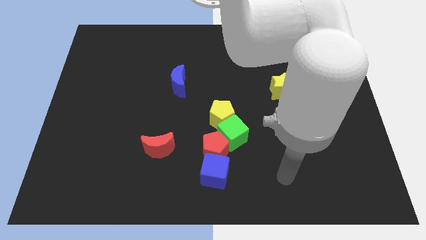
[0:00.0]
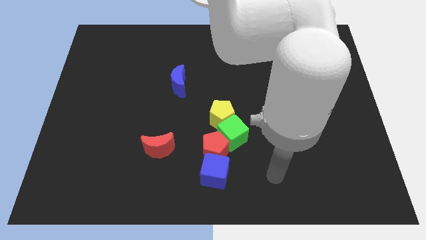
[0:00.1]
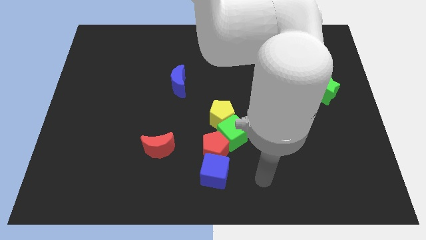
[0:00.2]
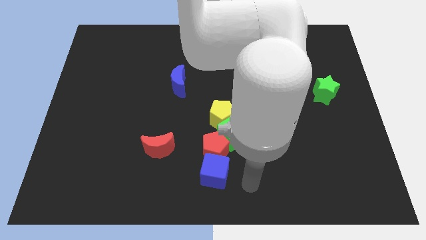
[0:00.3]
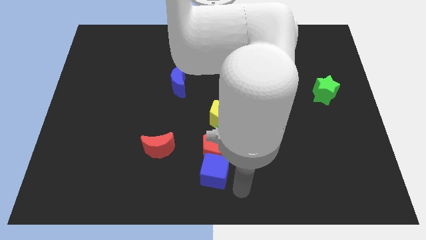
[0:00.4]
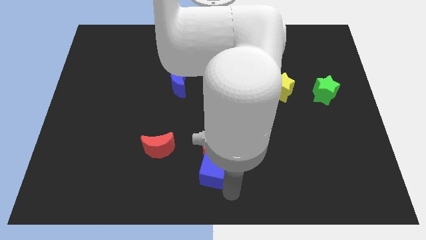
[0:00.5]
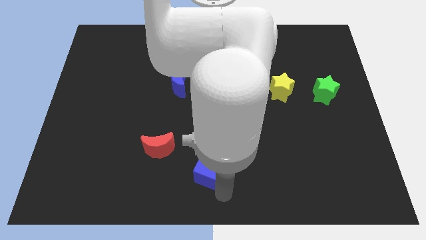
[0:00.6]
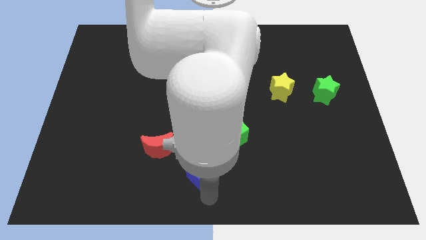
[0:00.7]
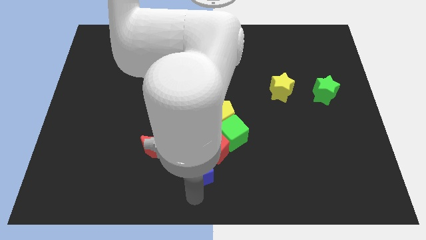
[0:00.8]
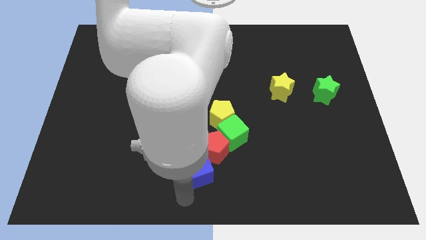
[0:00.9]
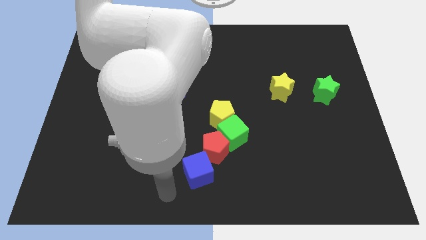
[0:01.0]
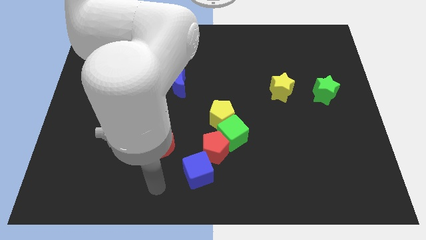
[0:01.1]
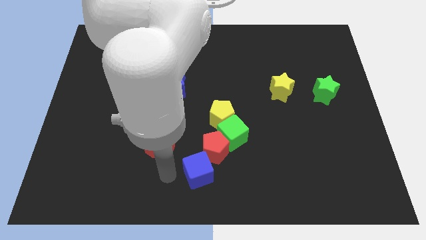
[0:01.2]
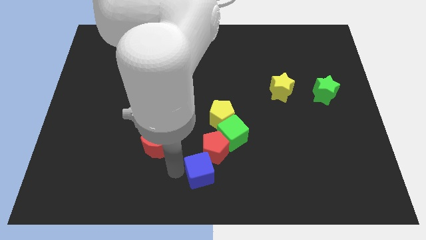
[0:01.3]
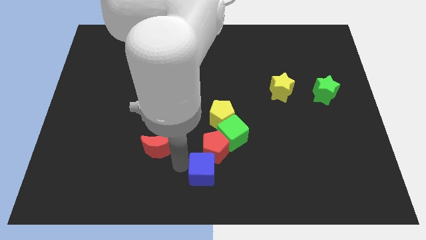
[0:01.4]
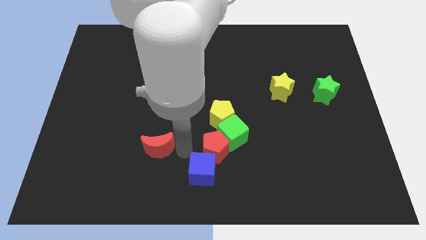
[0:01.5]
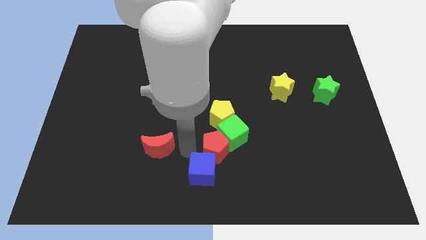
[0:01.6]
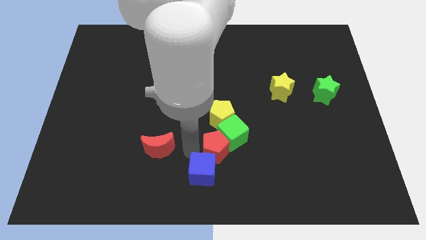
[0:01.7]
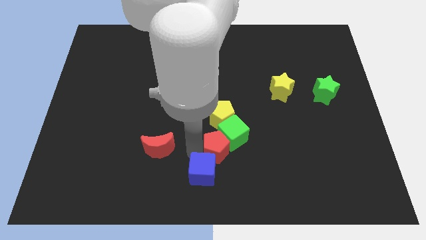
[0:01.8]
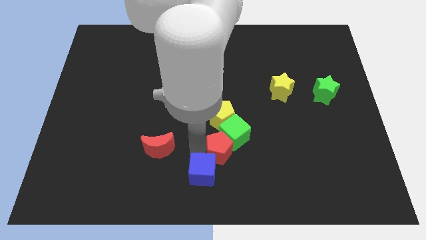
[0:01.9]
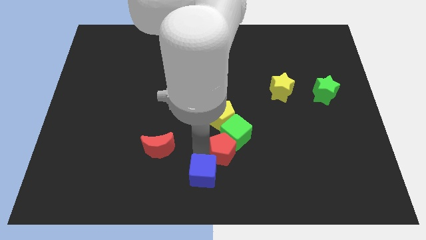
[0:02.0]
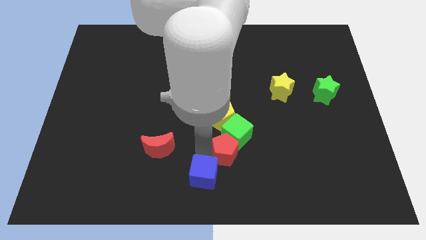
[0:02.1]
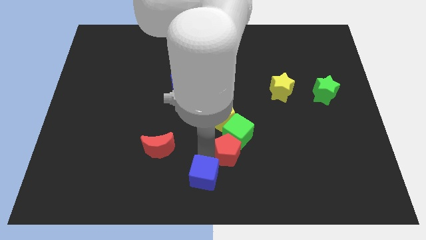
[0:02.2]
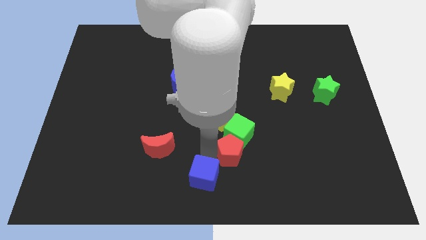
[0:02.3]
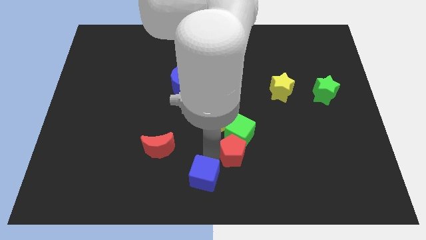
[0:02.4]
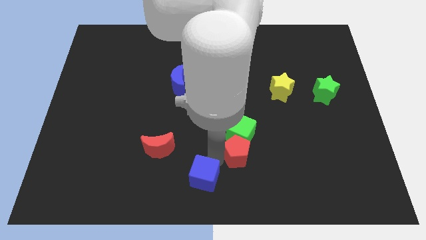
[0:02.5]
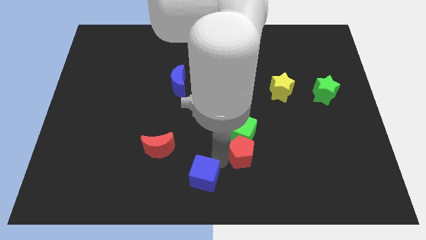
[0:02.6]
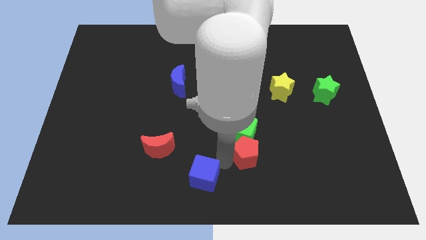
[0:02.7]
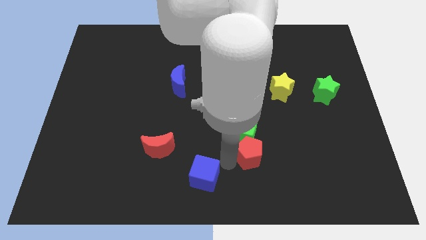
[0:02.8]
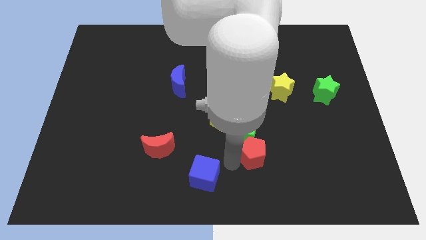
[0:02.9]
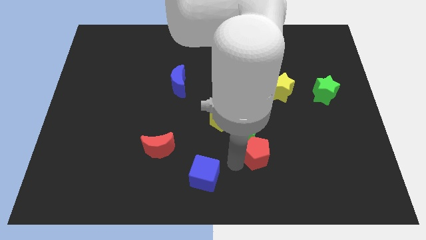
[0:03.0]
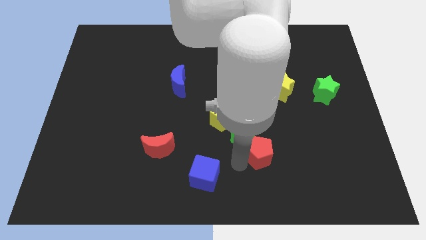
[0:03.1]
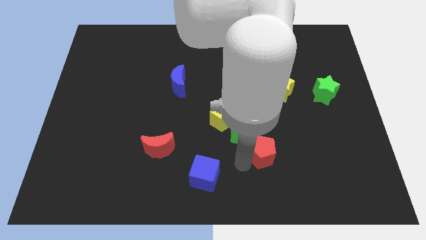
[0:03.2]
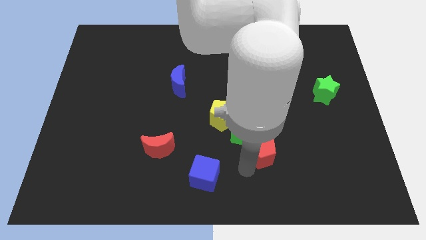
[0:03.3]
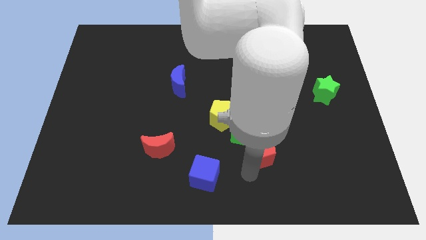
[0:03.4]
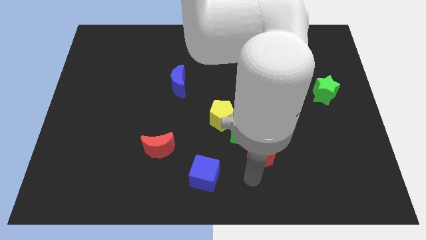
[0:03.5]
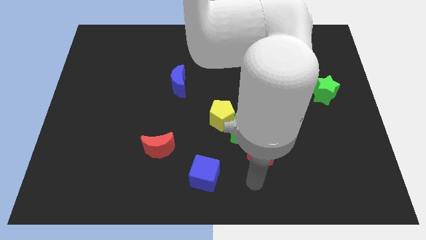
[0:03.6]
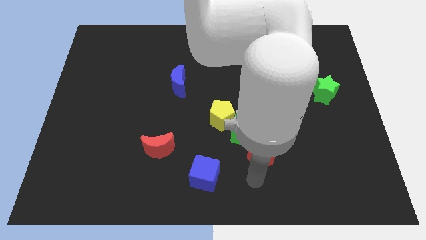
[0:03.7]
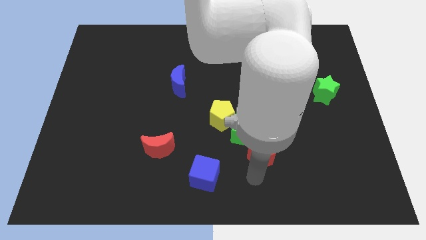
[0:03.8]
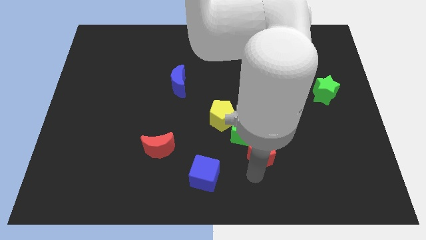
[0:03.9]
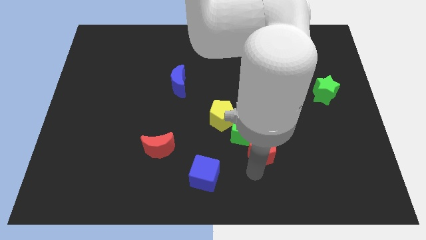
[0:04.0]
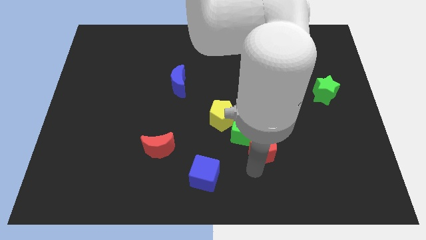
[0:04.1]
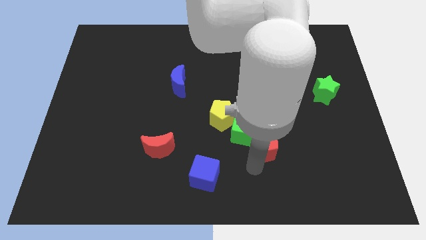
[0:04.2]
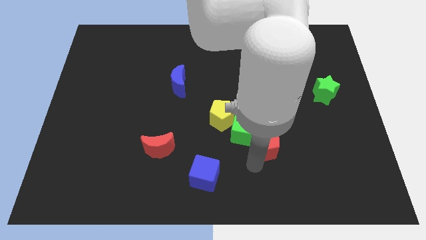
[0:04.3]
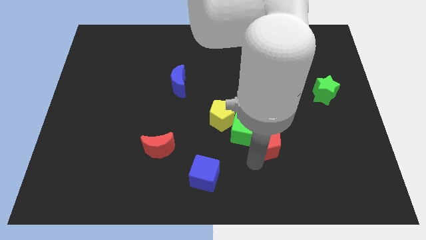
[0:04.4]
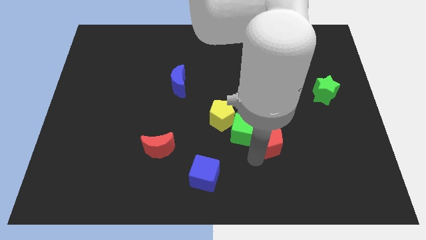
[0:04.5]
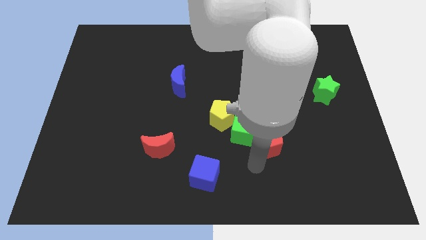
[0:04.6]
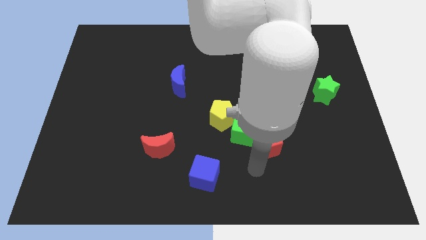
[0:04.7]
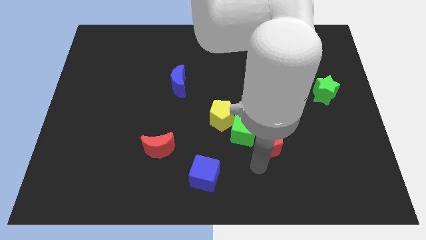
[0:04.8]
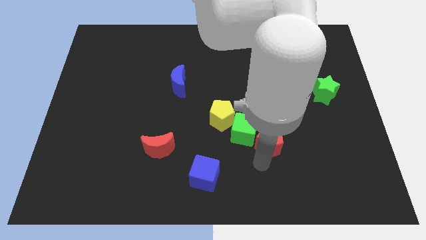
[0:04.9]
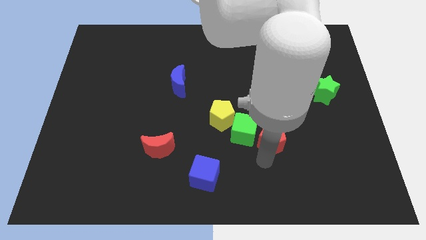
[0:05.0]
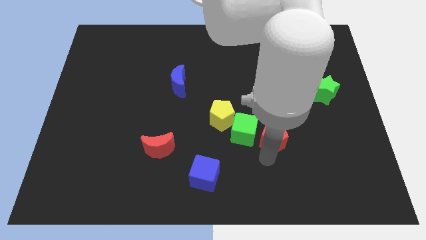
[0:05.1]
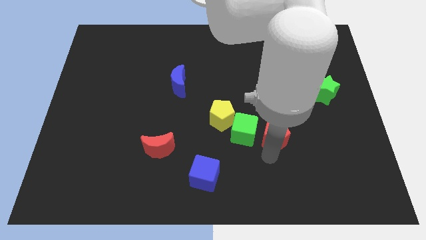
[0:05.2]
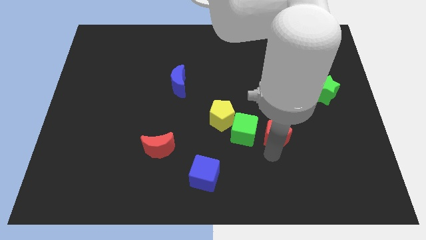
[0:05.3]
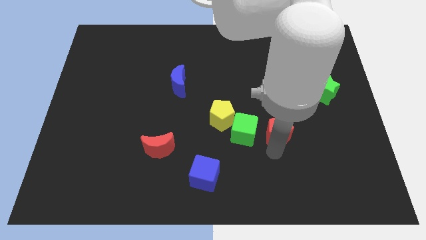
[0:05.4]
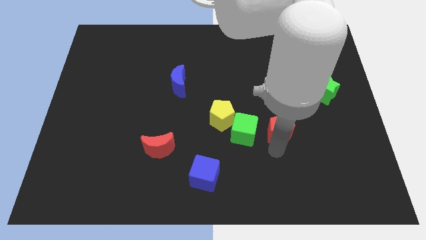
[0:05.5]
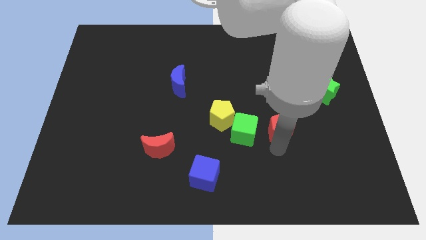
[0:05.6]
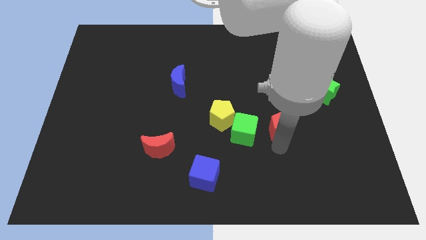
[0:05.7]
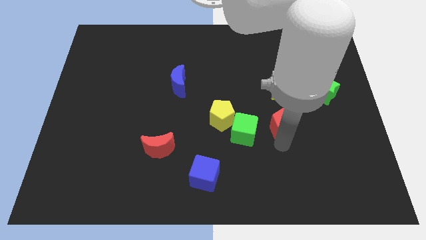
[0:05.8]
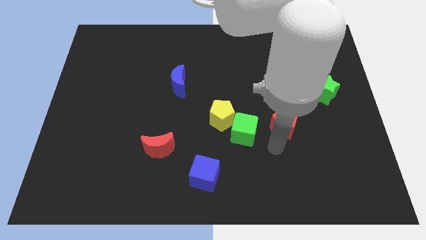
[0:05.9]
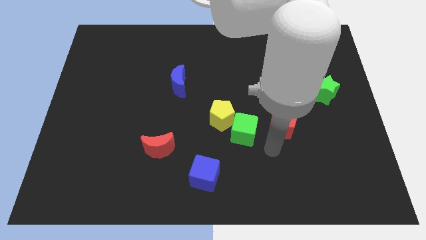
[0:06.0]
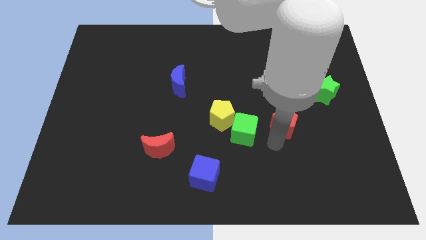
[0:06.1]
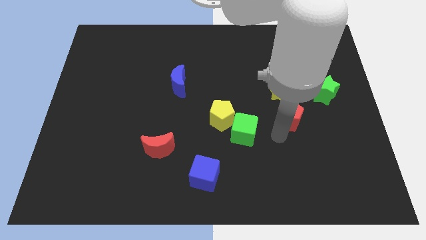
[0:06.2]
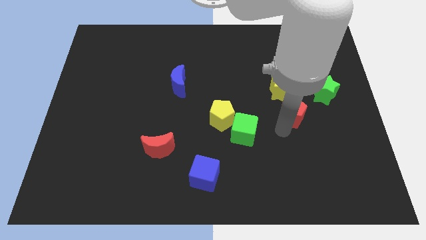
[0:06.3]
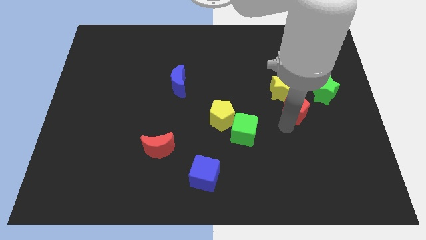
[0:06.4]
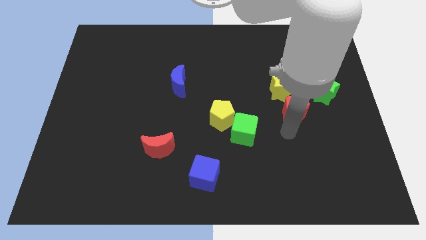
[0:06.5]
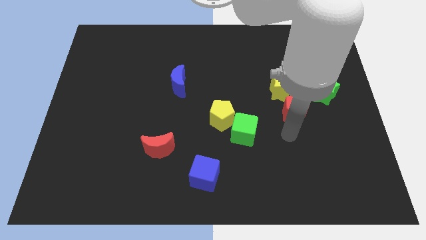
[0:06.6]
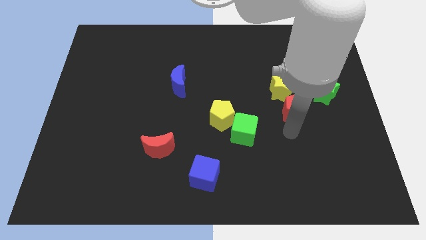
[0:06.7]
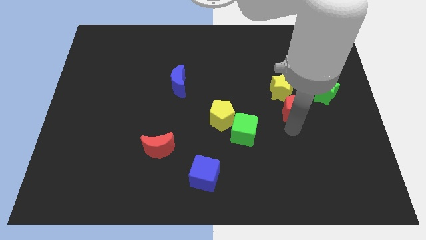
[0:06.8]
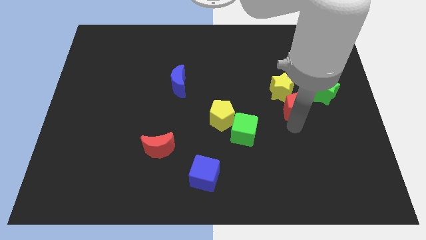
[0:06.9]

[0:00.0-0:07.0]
move the red pentagon up and right diagonally

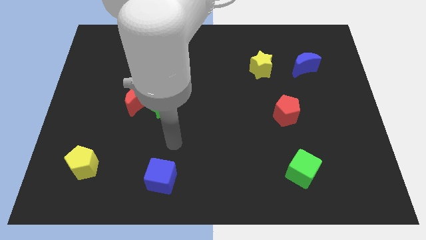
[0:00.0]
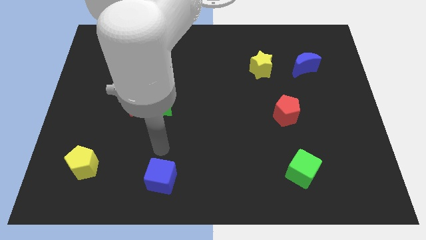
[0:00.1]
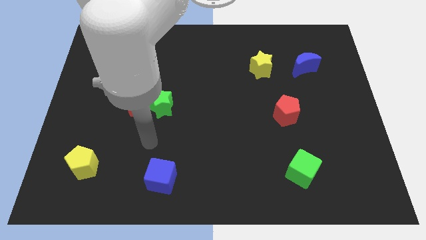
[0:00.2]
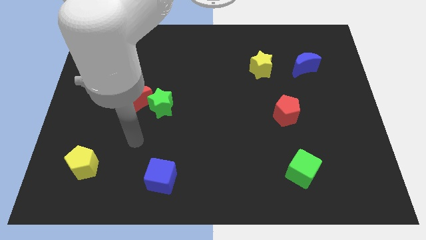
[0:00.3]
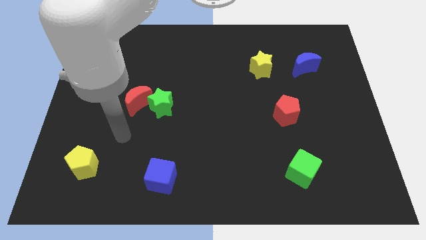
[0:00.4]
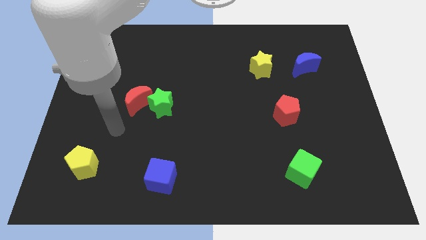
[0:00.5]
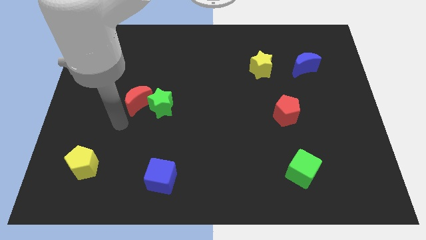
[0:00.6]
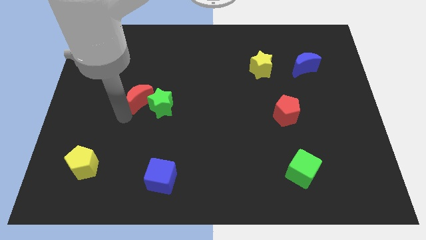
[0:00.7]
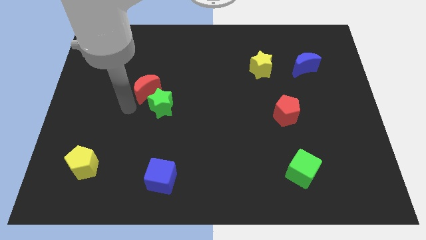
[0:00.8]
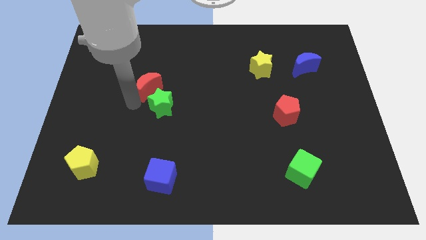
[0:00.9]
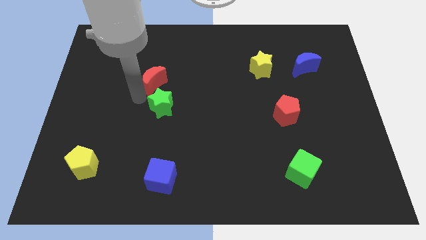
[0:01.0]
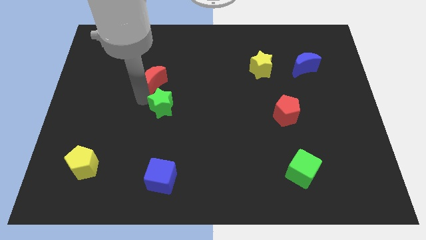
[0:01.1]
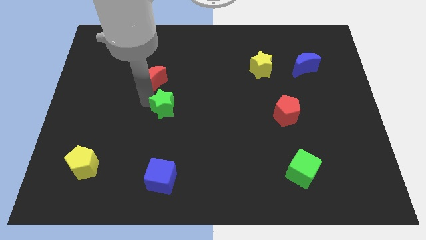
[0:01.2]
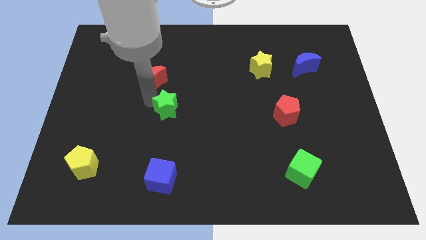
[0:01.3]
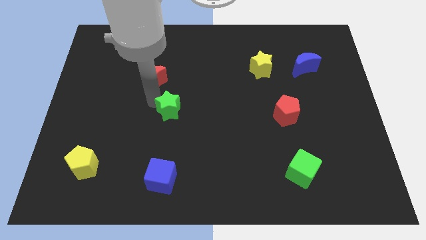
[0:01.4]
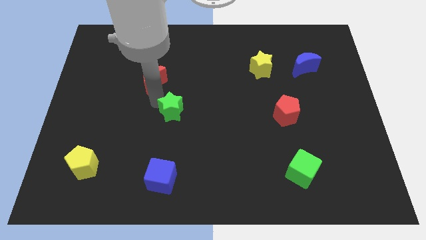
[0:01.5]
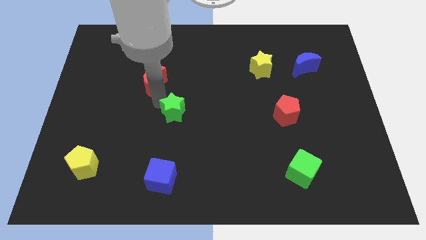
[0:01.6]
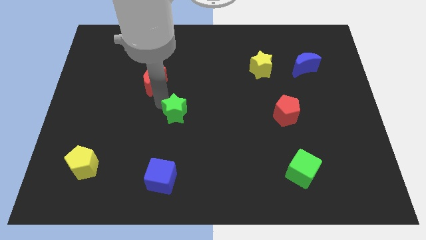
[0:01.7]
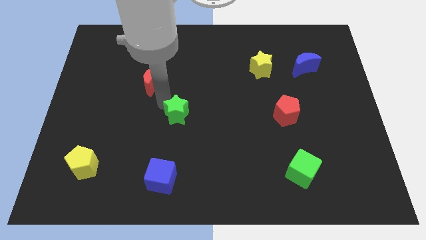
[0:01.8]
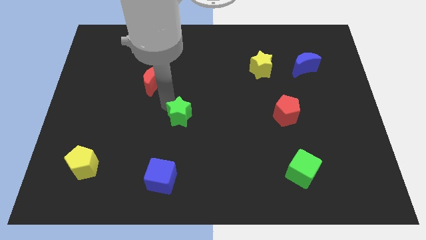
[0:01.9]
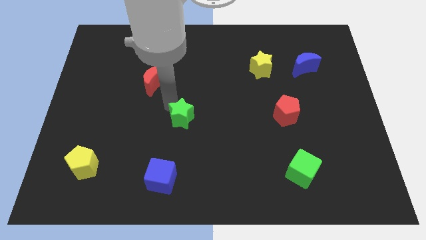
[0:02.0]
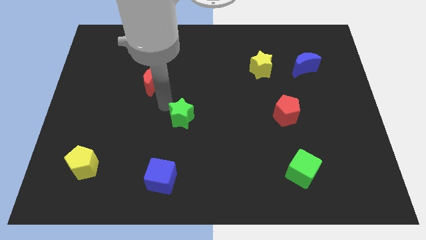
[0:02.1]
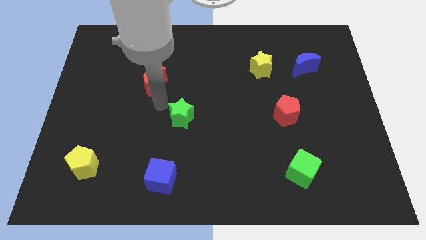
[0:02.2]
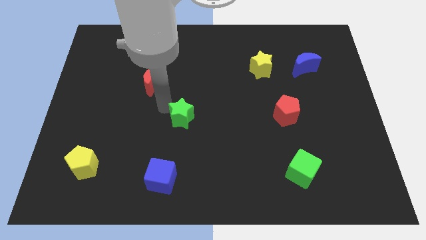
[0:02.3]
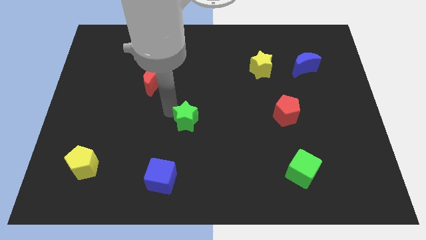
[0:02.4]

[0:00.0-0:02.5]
slightly slide the green star downwards and then right
